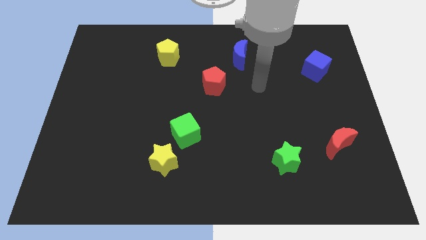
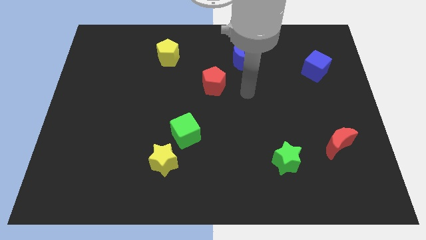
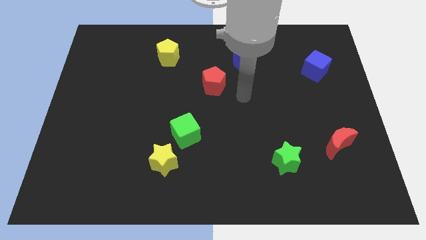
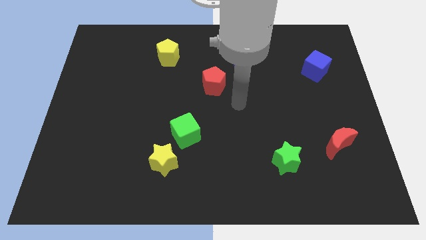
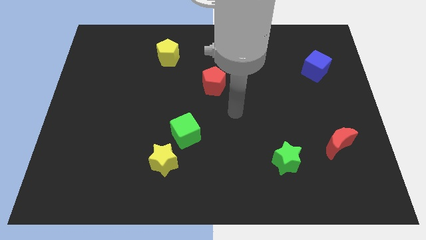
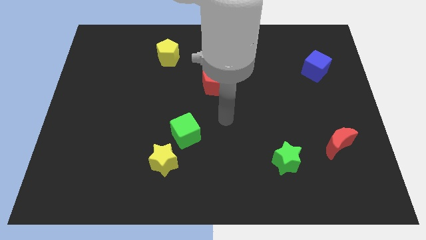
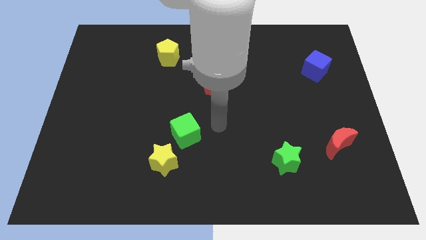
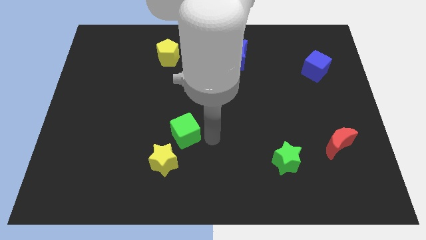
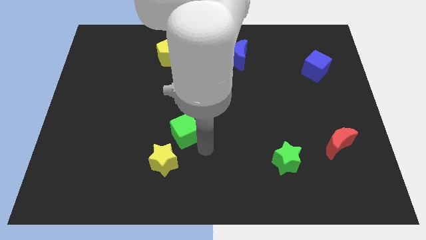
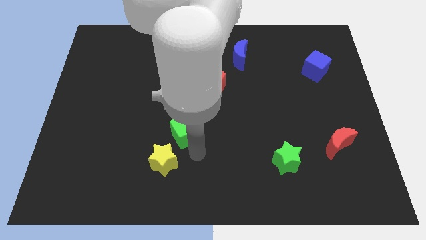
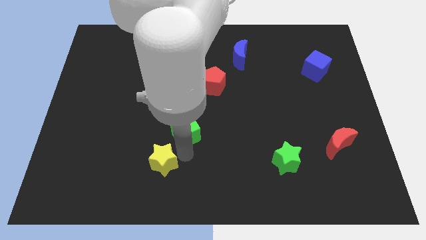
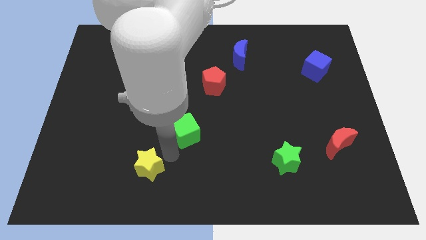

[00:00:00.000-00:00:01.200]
move the green cube away from the yellow star

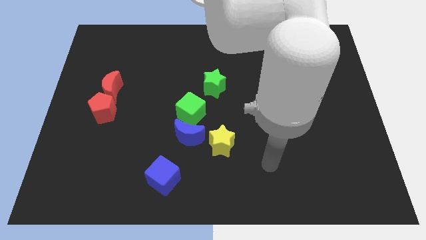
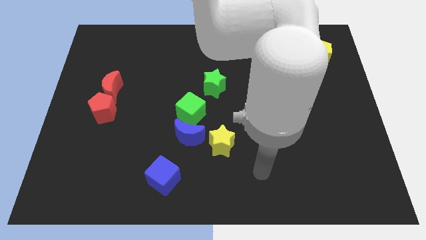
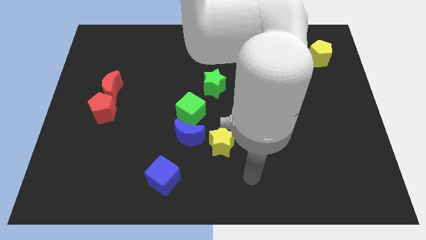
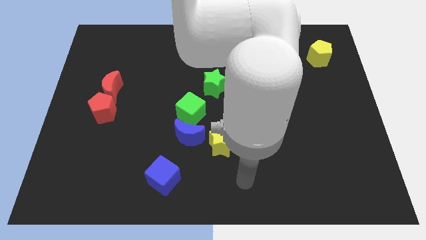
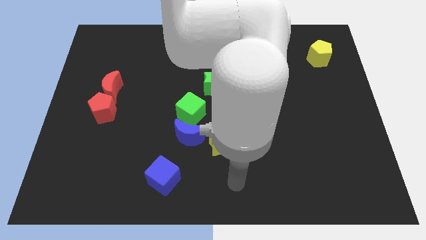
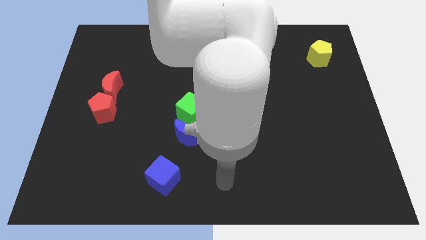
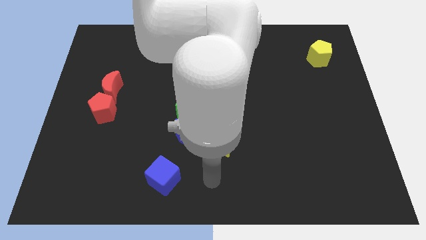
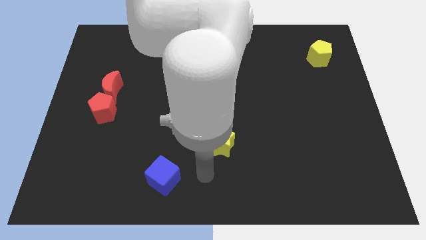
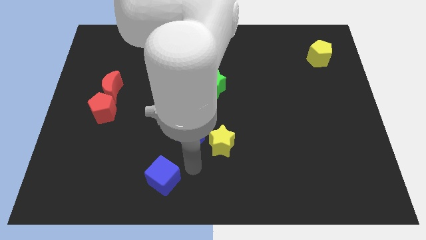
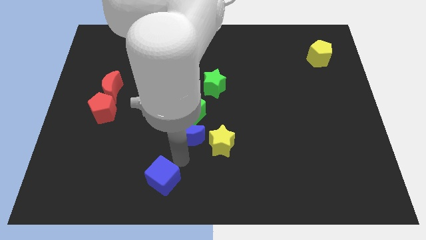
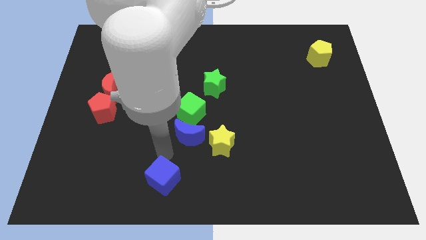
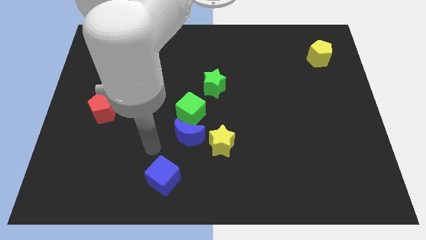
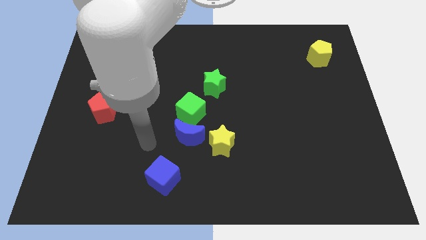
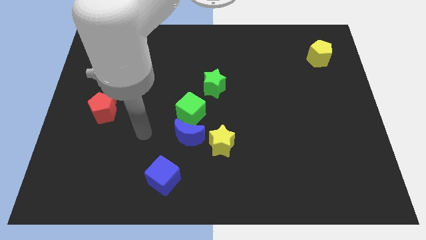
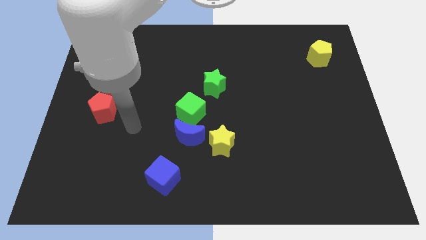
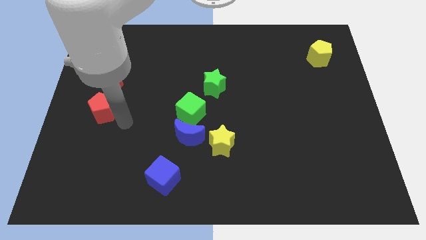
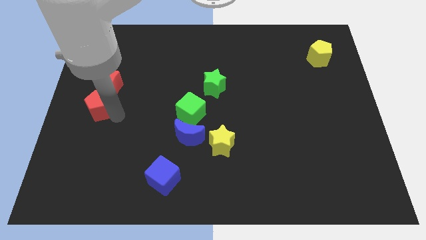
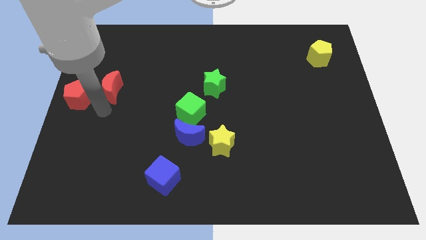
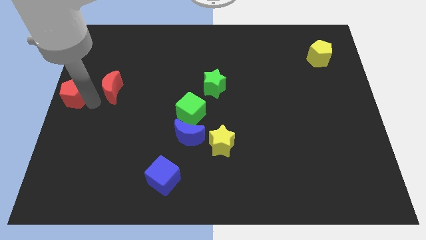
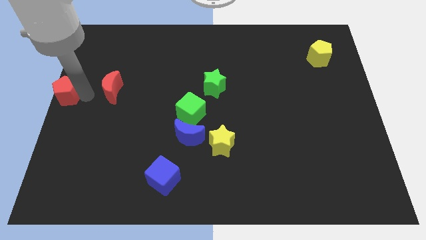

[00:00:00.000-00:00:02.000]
separate the red moon from the red pentagon

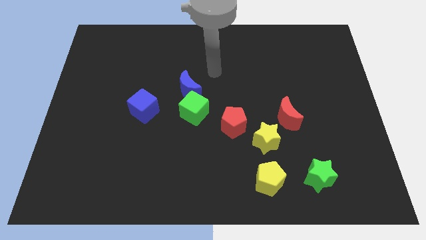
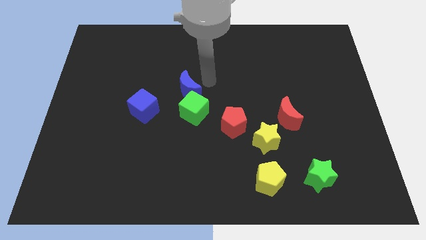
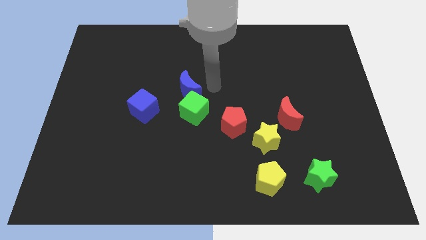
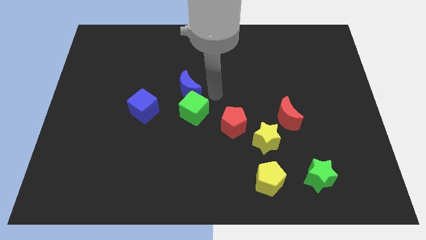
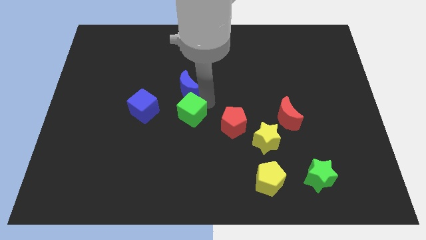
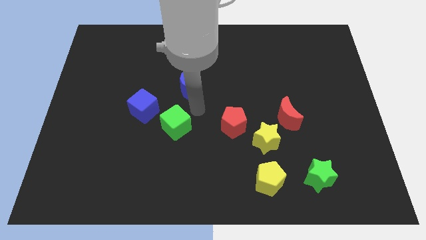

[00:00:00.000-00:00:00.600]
pull the blue moon apart from the green cube

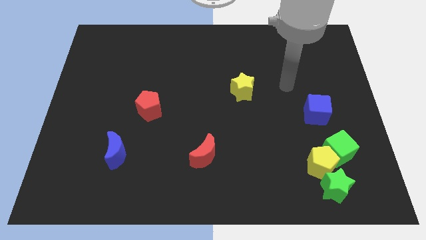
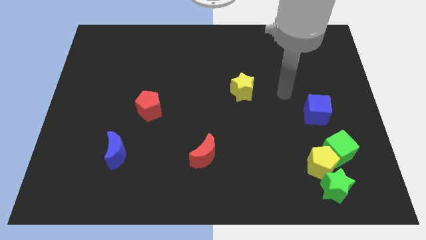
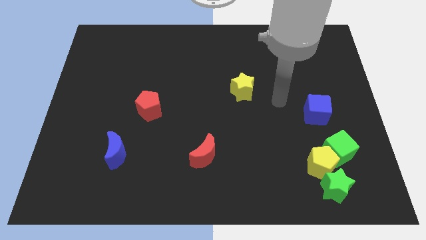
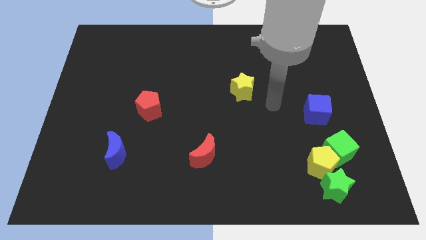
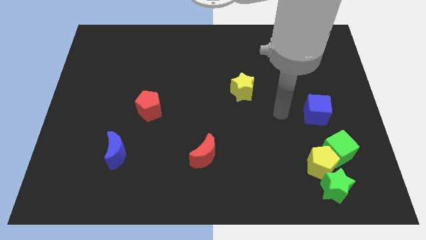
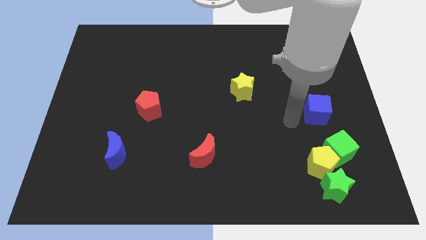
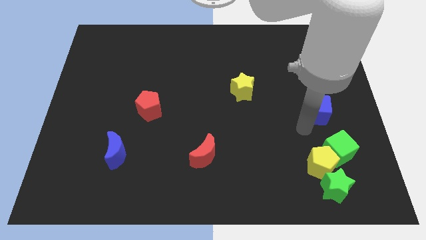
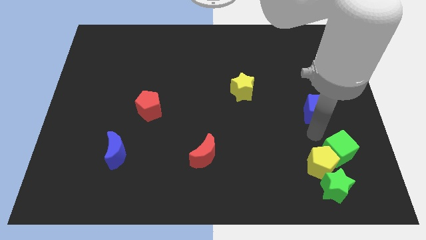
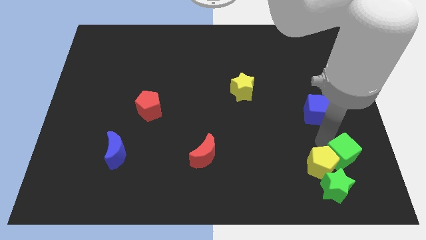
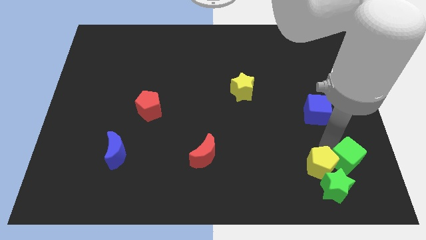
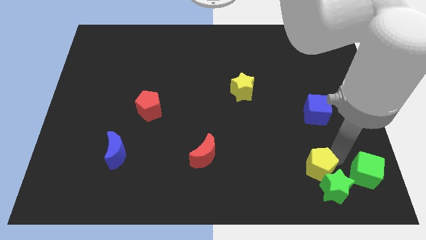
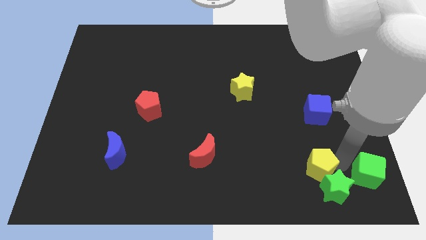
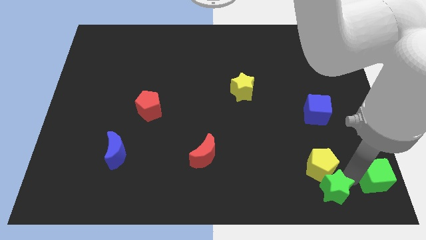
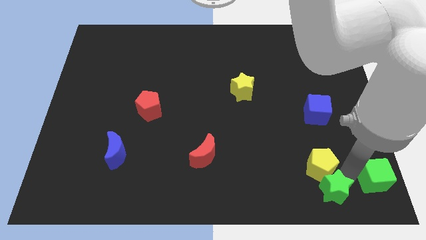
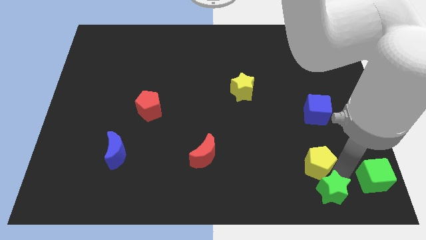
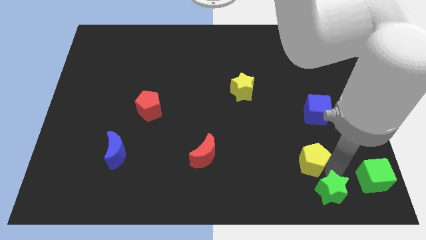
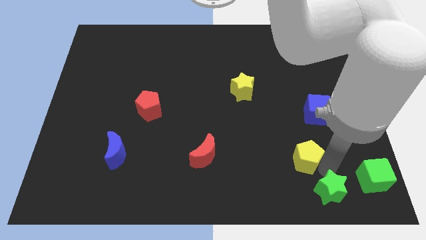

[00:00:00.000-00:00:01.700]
separate the yellow pentagon from the green cube and green star

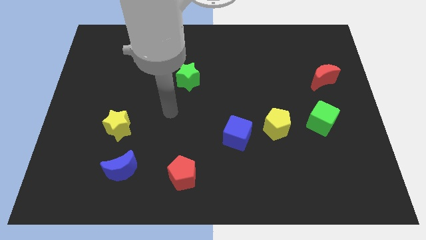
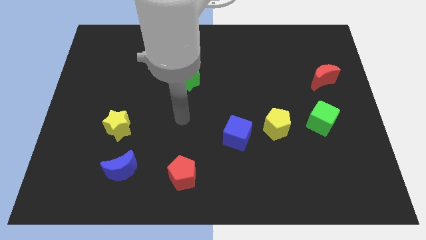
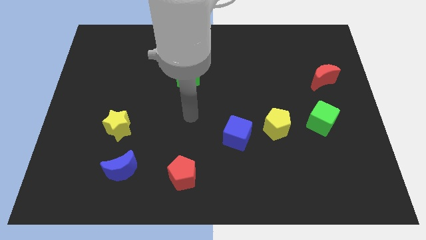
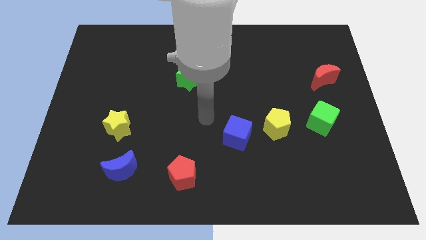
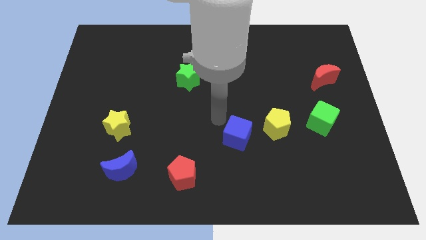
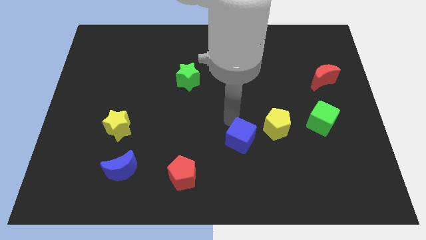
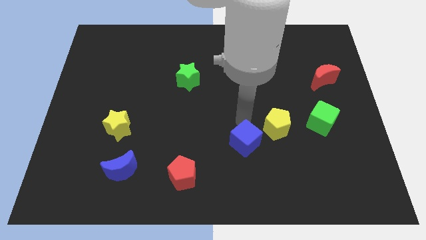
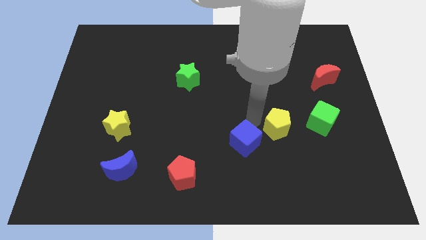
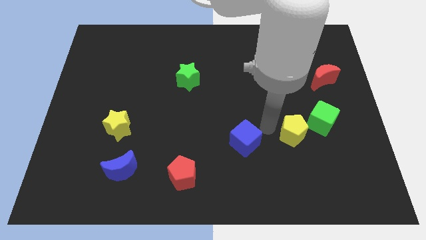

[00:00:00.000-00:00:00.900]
separate the blue cube from the yellow pentagon

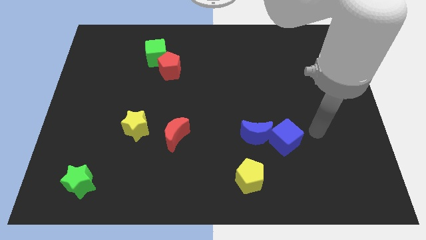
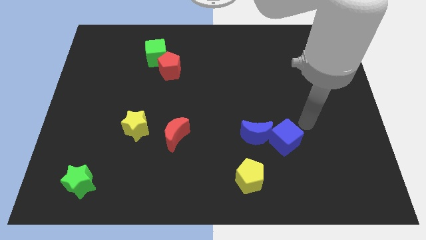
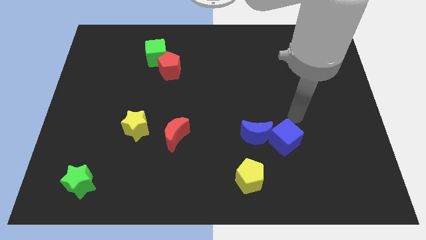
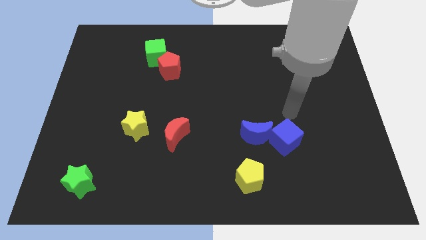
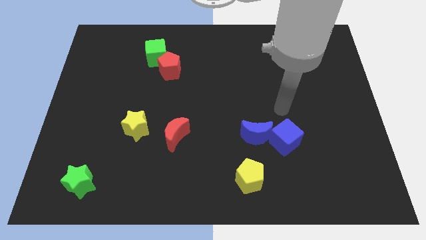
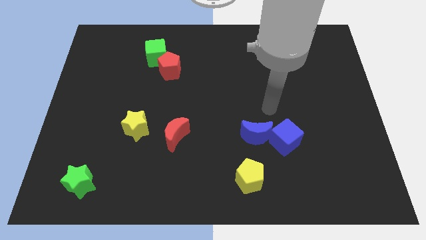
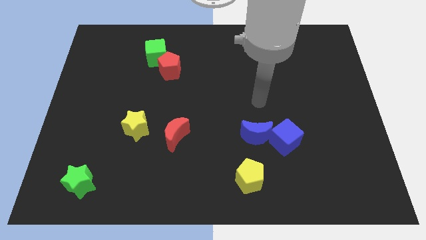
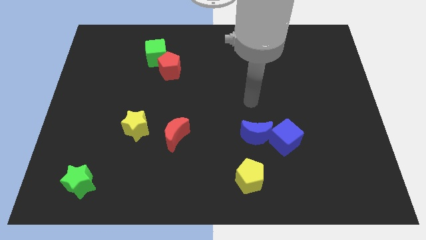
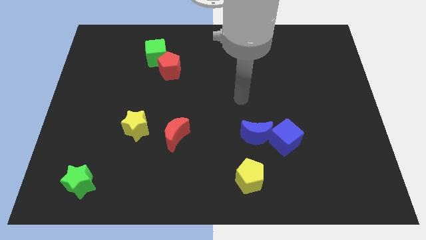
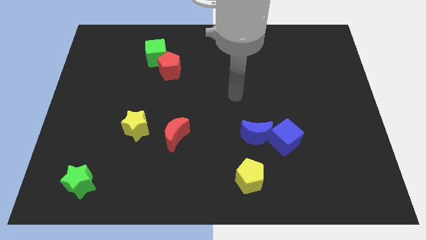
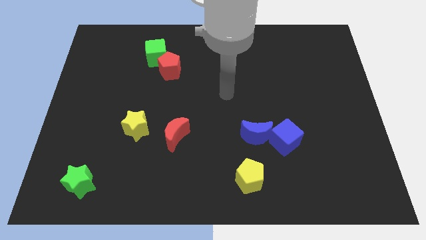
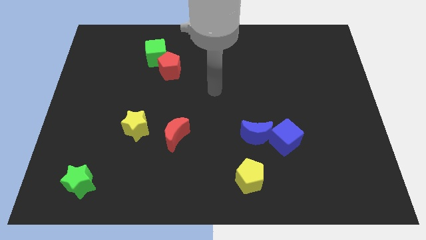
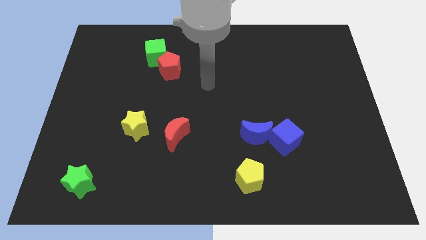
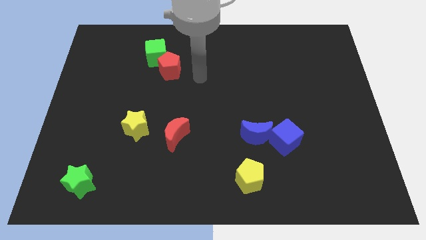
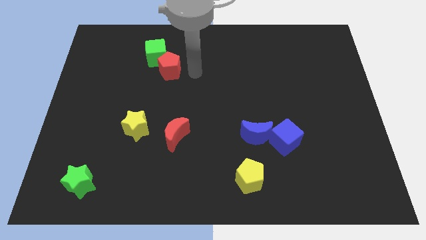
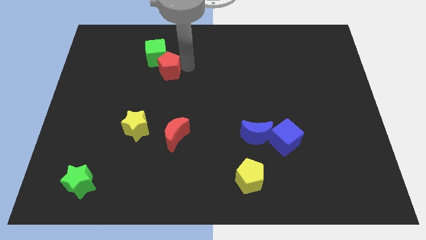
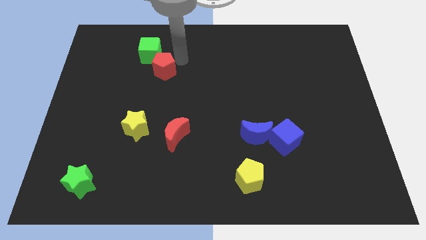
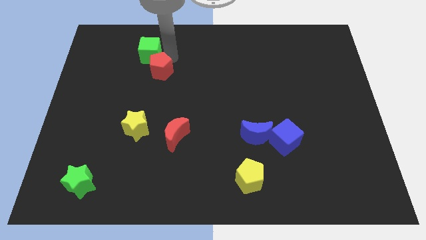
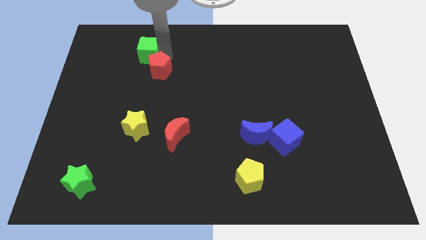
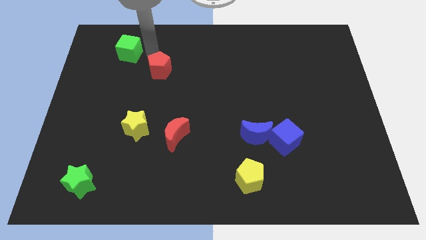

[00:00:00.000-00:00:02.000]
pull the red pentagon apart from the green cube

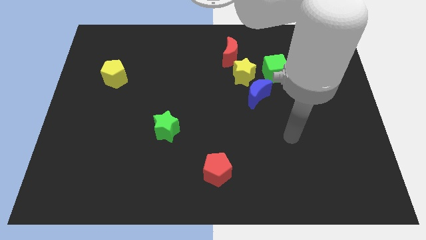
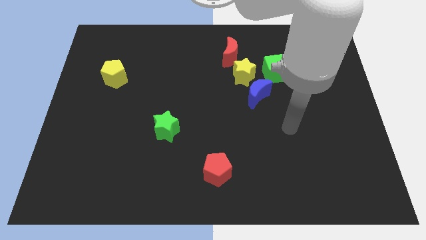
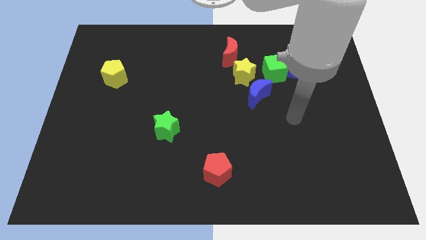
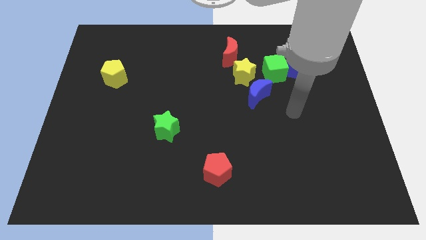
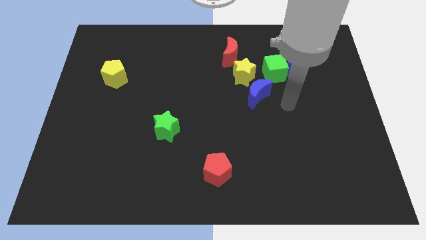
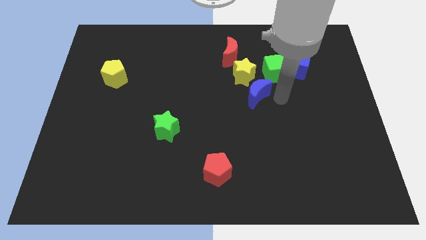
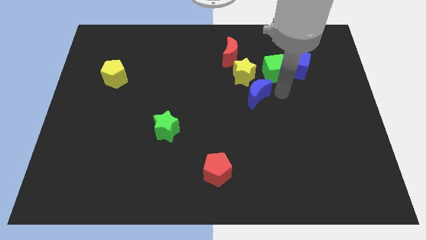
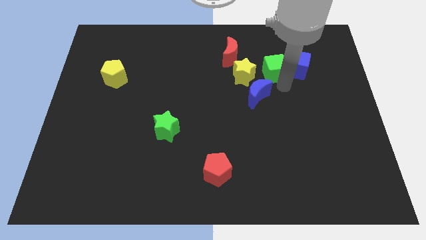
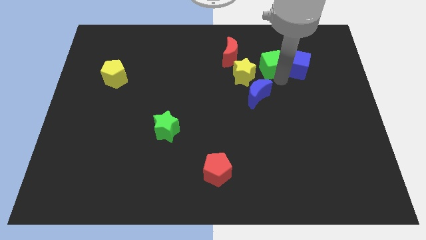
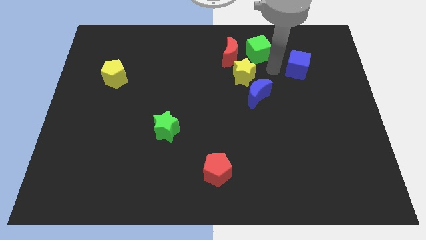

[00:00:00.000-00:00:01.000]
move the blue cube away from the green cube
